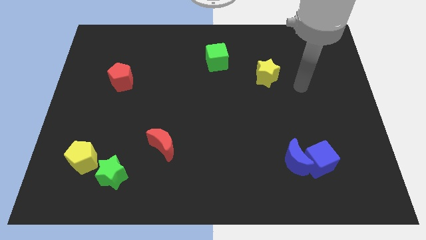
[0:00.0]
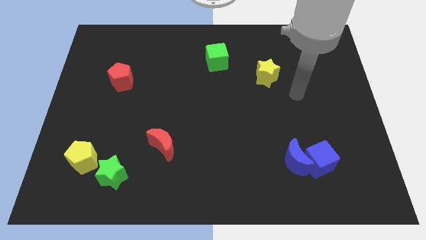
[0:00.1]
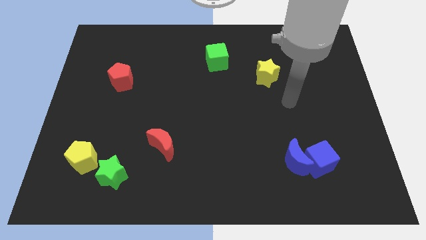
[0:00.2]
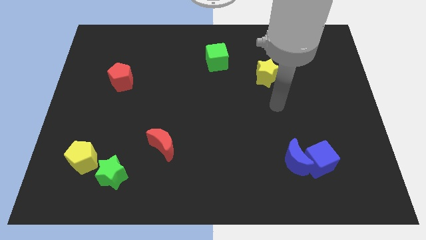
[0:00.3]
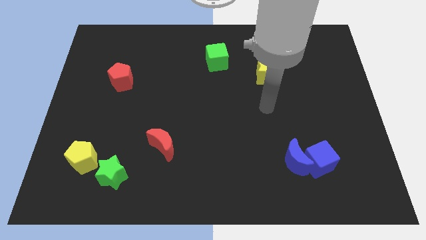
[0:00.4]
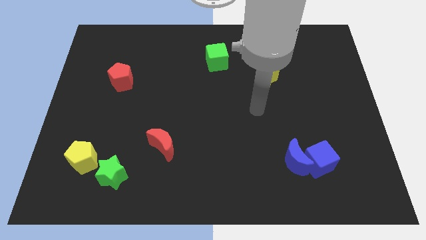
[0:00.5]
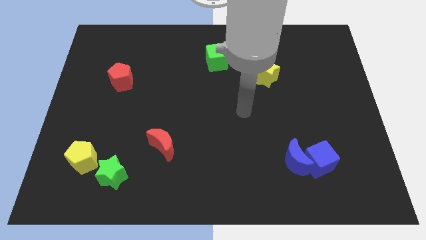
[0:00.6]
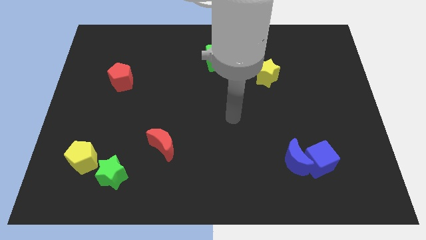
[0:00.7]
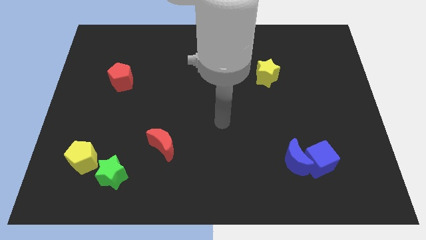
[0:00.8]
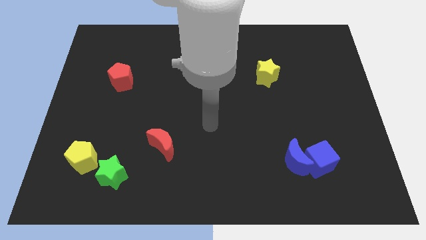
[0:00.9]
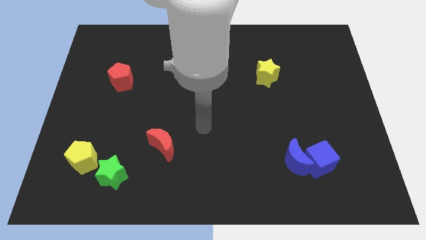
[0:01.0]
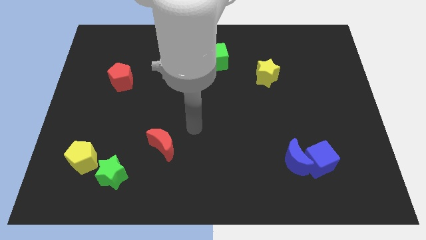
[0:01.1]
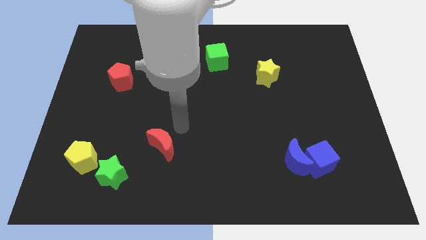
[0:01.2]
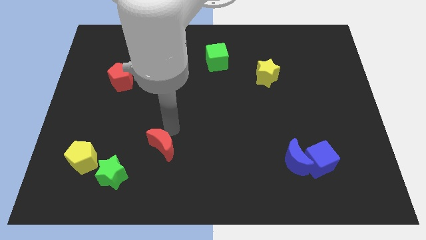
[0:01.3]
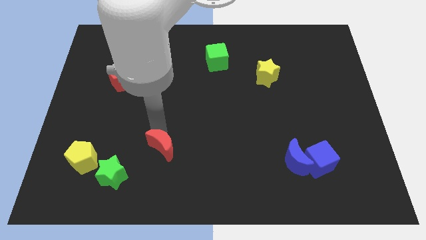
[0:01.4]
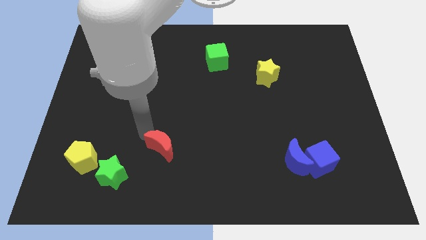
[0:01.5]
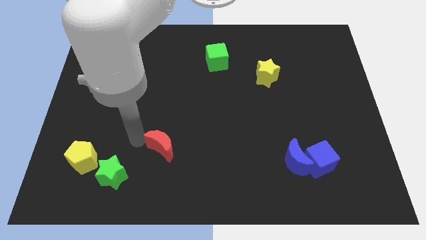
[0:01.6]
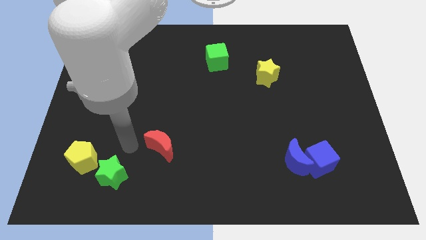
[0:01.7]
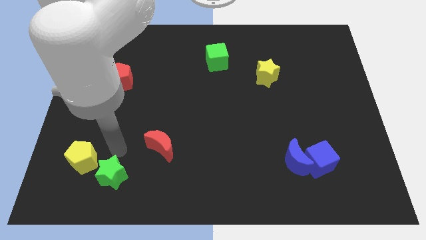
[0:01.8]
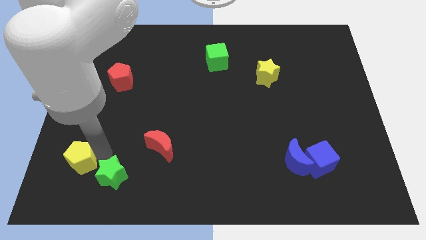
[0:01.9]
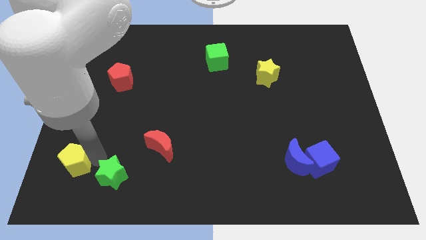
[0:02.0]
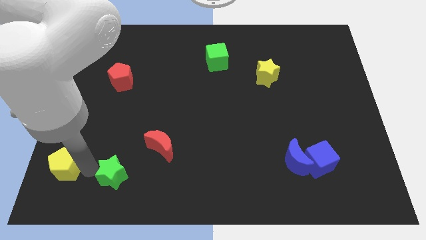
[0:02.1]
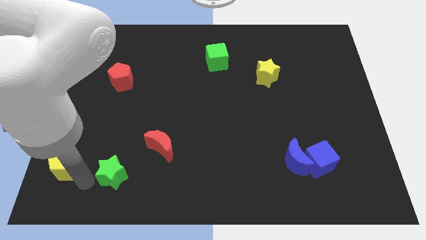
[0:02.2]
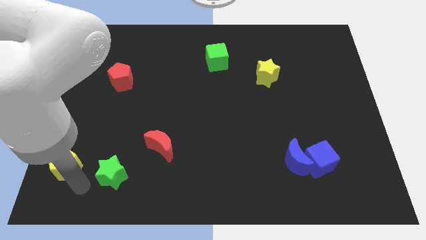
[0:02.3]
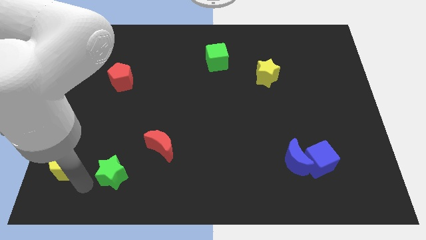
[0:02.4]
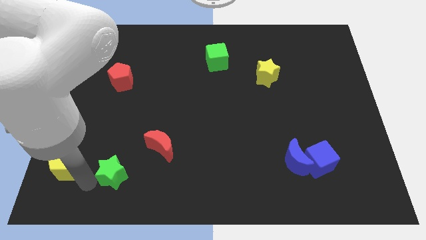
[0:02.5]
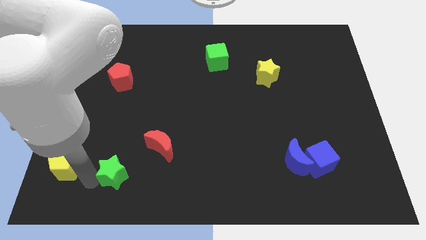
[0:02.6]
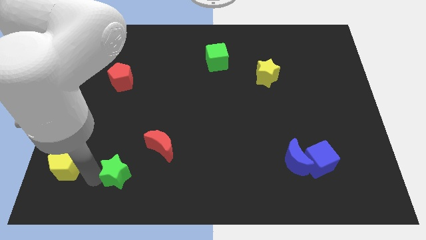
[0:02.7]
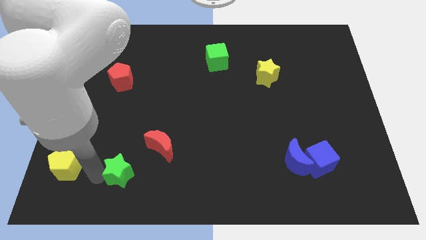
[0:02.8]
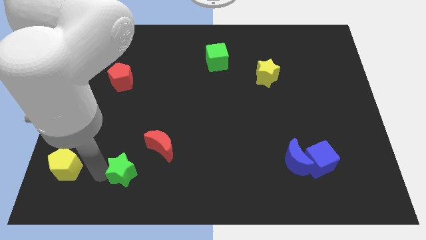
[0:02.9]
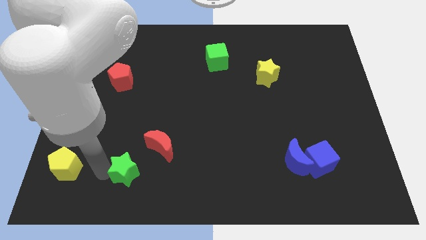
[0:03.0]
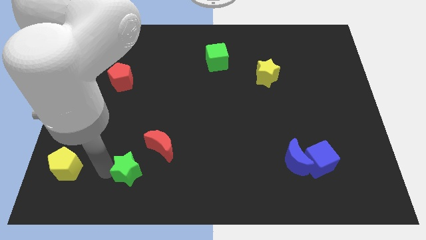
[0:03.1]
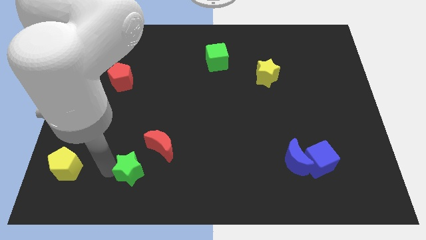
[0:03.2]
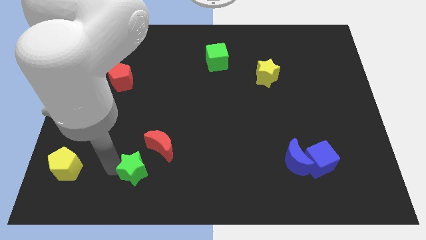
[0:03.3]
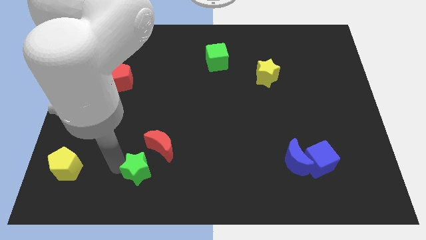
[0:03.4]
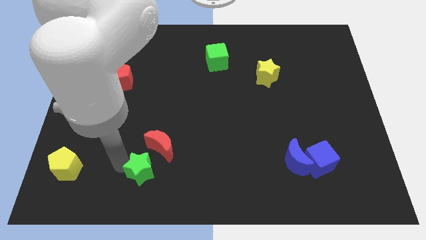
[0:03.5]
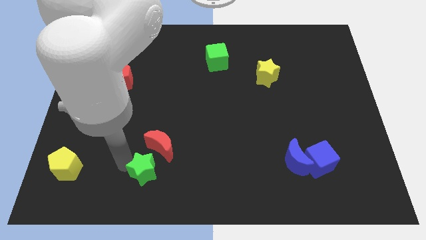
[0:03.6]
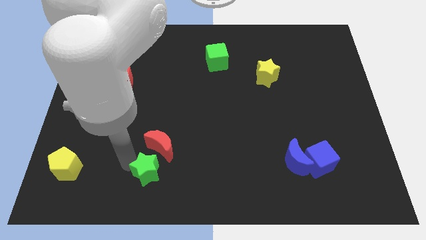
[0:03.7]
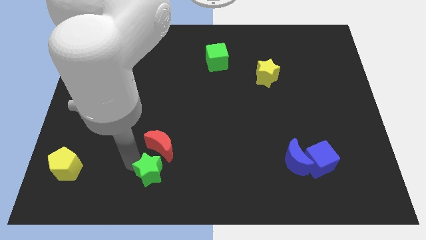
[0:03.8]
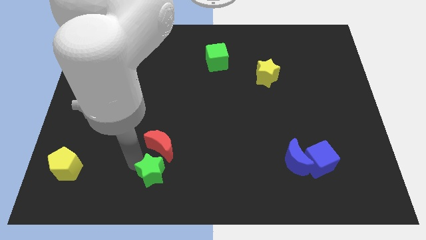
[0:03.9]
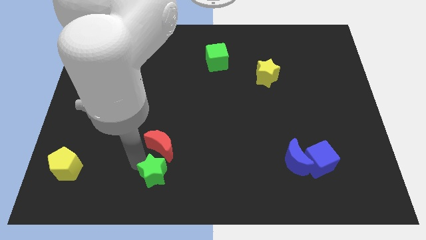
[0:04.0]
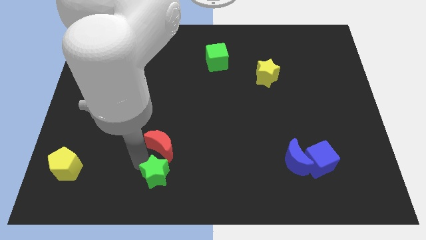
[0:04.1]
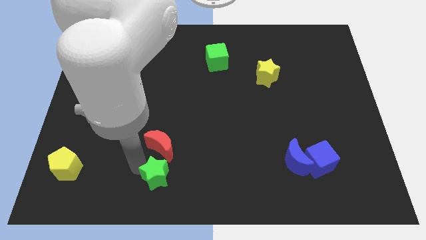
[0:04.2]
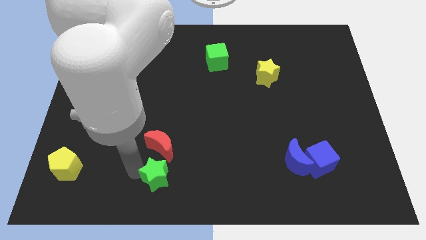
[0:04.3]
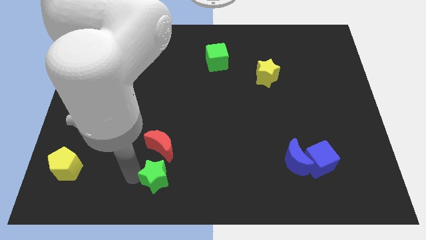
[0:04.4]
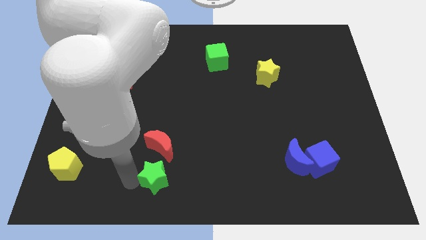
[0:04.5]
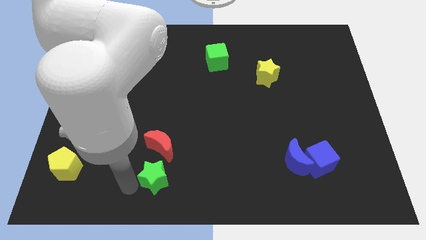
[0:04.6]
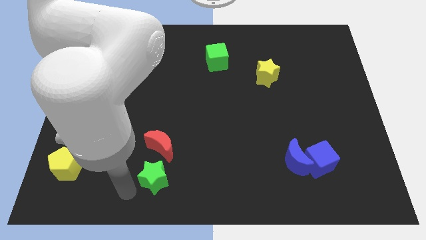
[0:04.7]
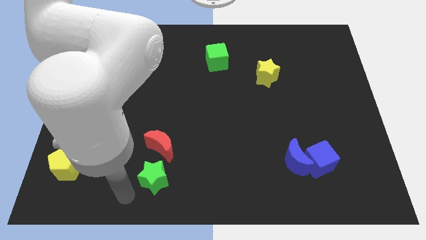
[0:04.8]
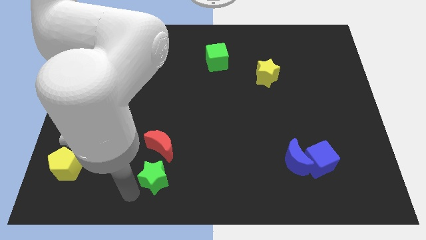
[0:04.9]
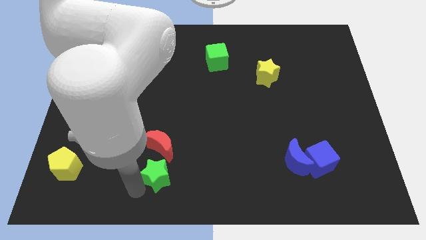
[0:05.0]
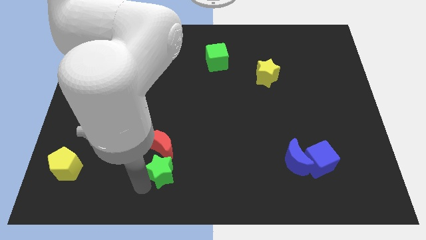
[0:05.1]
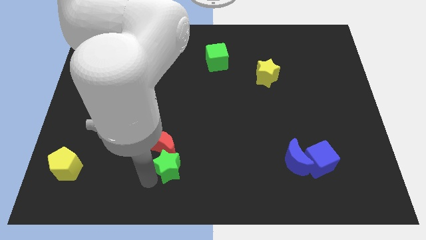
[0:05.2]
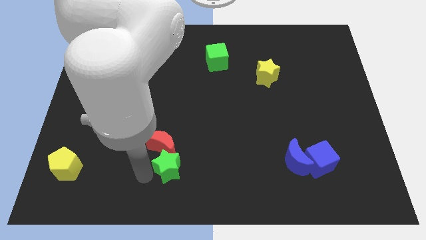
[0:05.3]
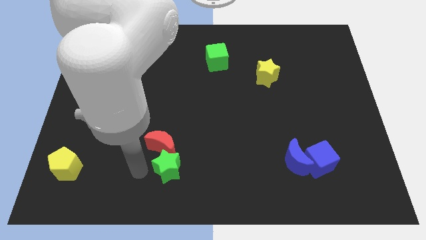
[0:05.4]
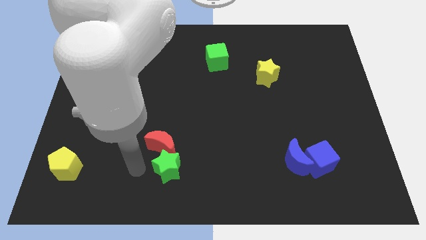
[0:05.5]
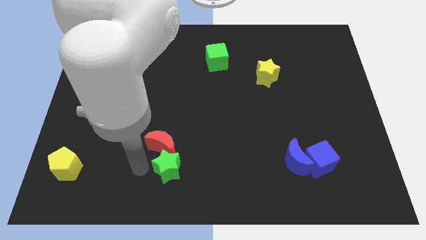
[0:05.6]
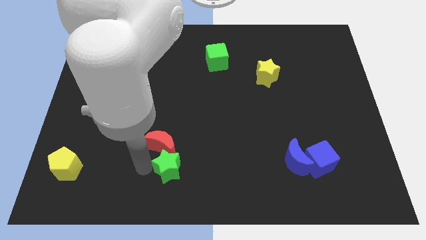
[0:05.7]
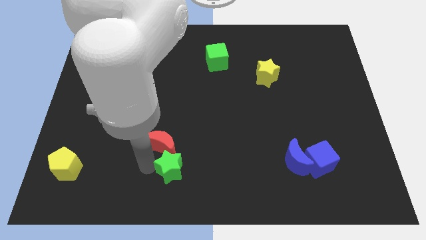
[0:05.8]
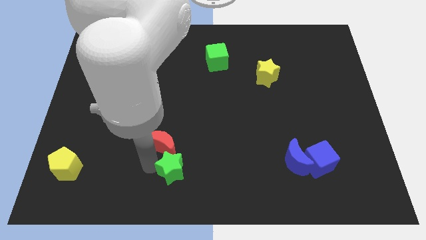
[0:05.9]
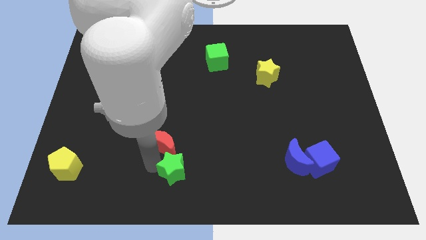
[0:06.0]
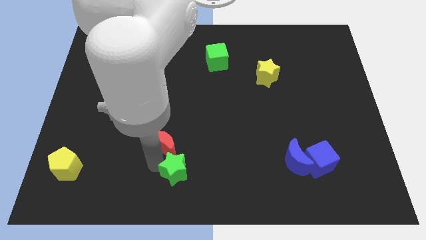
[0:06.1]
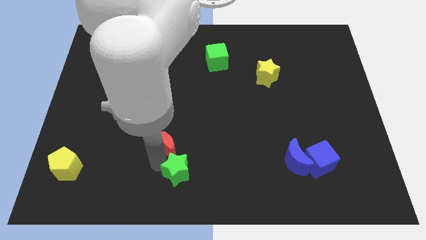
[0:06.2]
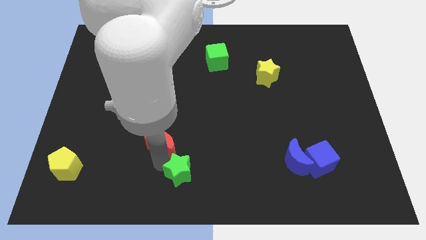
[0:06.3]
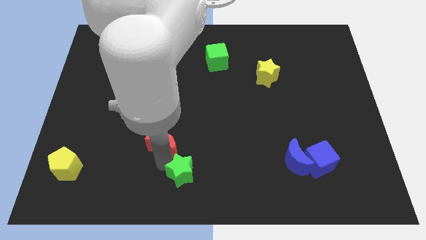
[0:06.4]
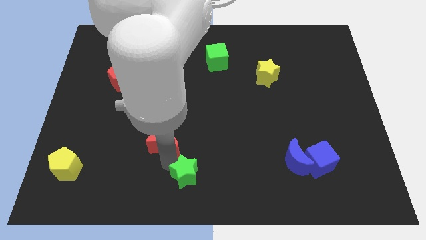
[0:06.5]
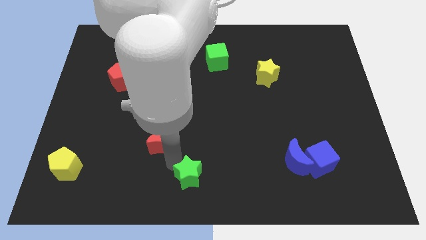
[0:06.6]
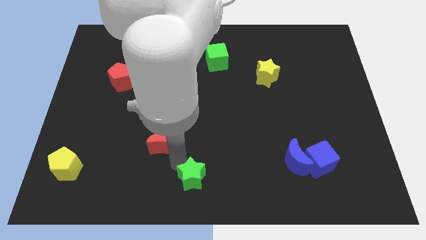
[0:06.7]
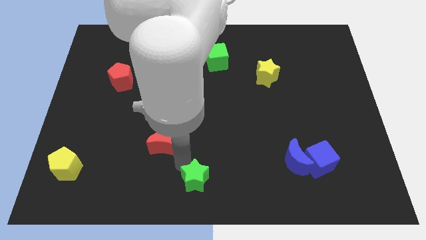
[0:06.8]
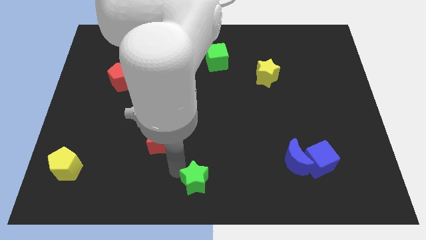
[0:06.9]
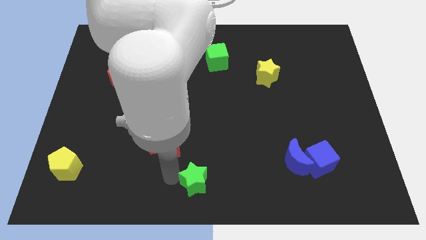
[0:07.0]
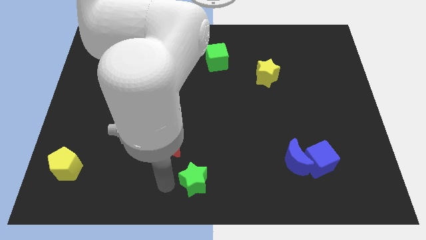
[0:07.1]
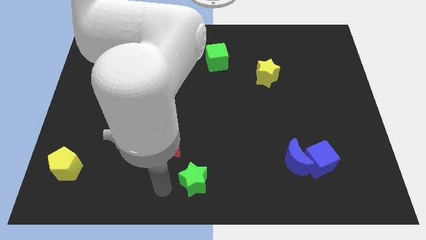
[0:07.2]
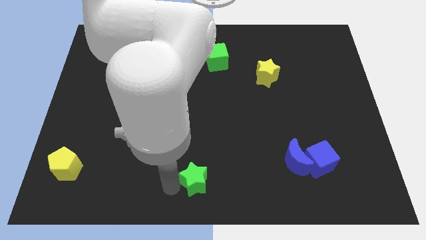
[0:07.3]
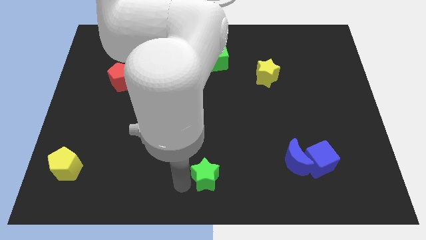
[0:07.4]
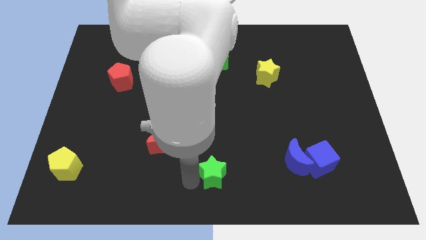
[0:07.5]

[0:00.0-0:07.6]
slide the green star right

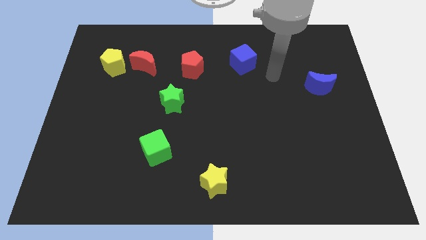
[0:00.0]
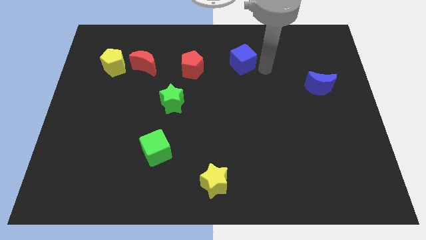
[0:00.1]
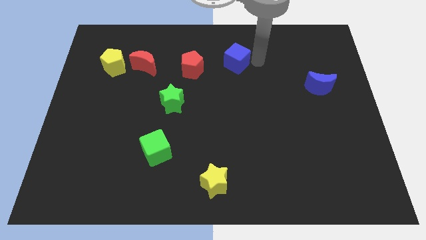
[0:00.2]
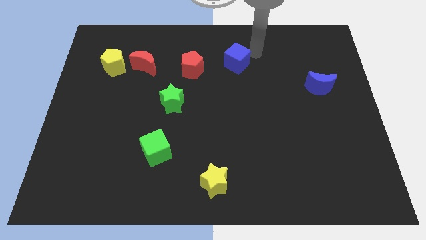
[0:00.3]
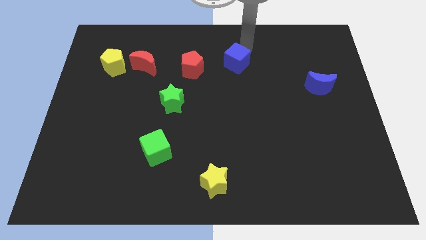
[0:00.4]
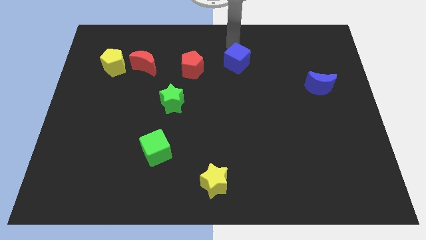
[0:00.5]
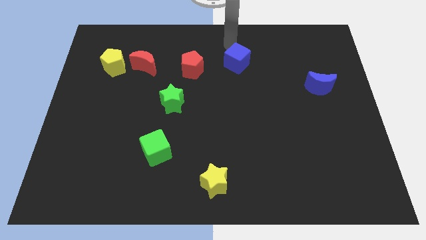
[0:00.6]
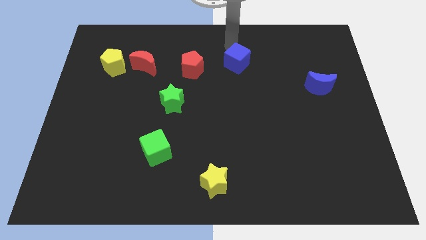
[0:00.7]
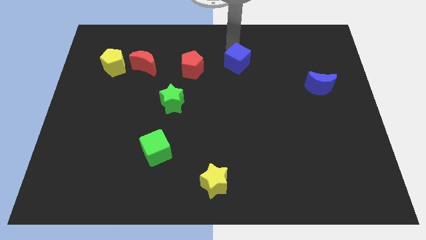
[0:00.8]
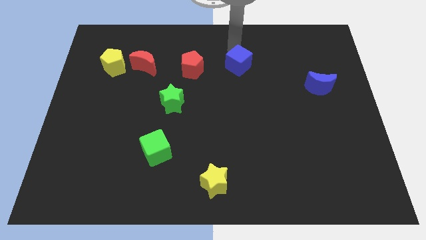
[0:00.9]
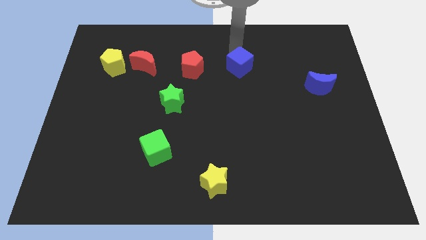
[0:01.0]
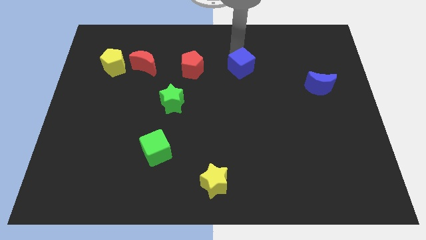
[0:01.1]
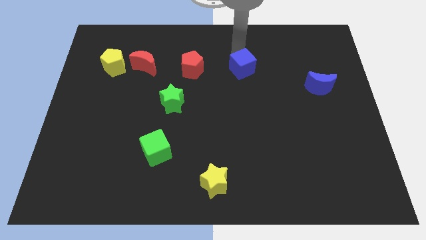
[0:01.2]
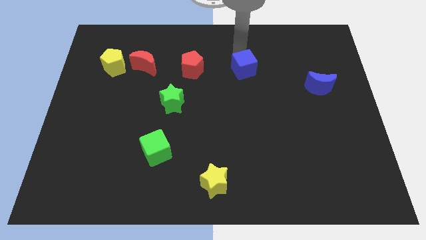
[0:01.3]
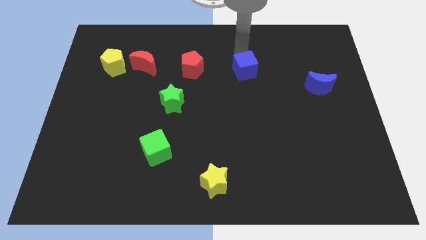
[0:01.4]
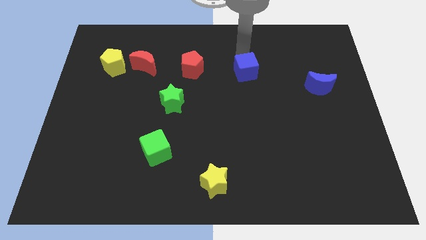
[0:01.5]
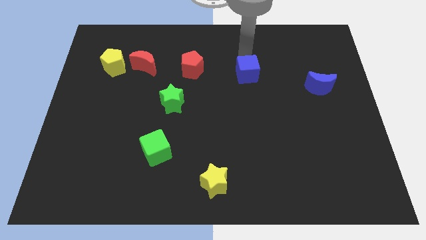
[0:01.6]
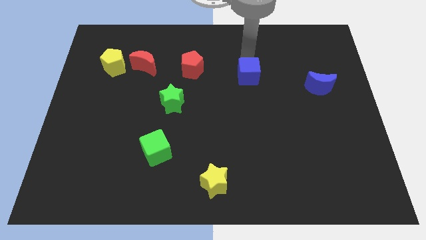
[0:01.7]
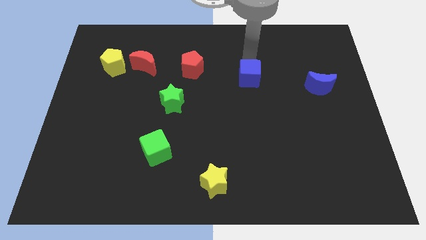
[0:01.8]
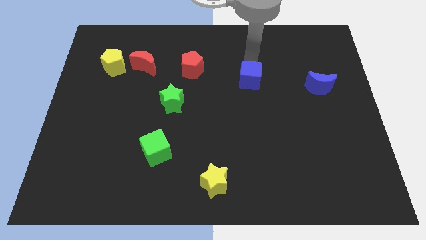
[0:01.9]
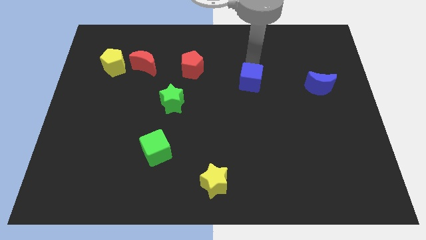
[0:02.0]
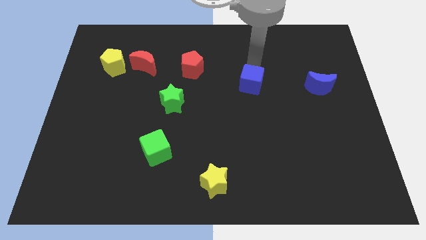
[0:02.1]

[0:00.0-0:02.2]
push the blue cube somewhat downwards
